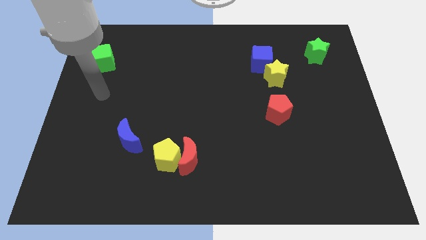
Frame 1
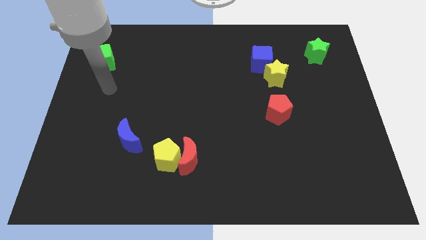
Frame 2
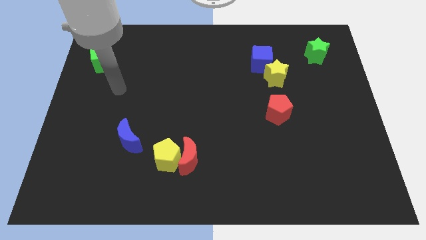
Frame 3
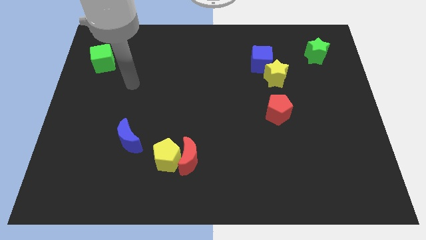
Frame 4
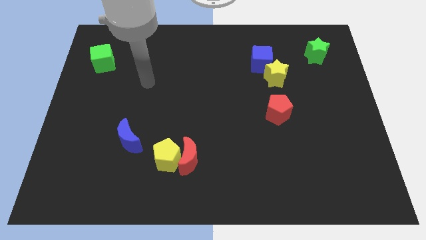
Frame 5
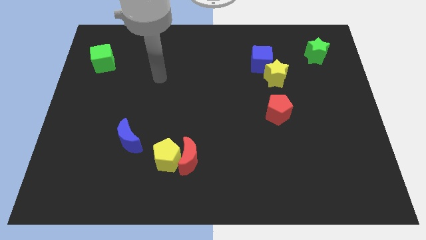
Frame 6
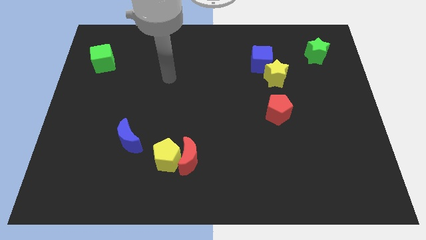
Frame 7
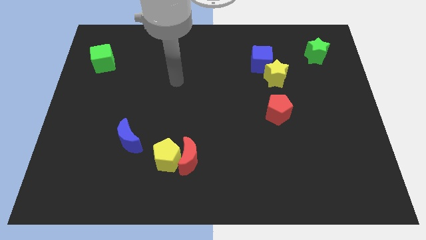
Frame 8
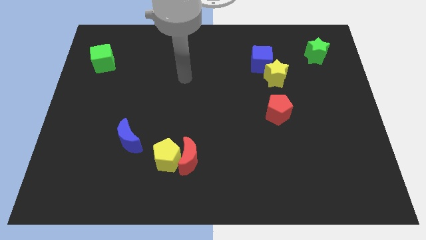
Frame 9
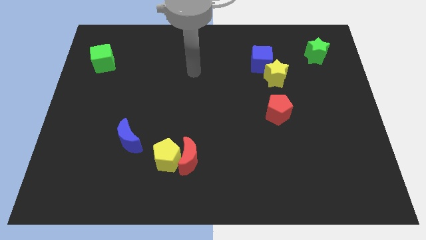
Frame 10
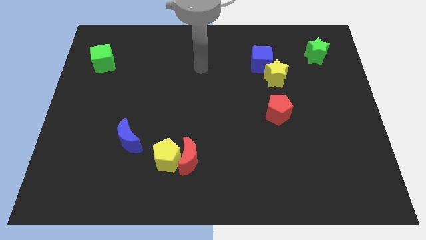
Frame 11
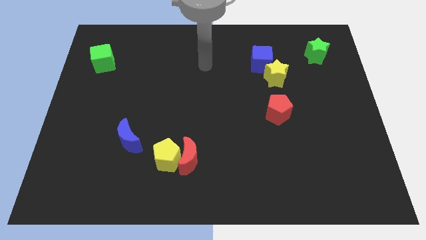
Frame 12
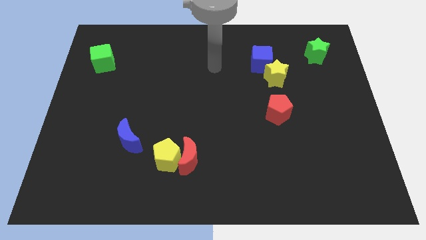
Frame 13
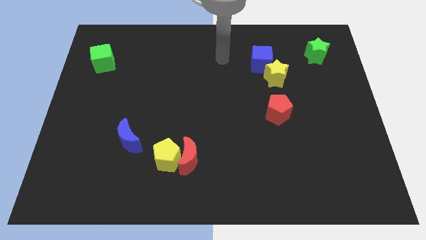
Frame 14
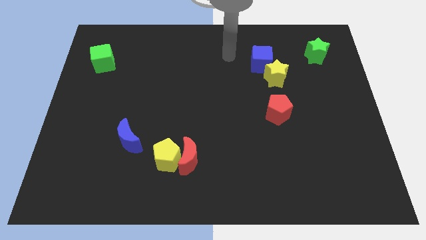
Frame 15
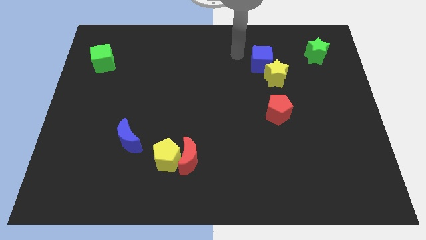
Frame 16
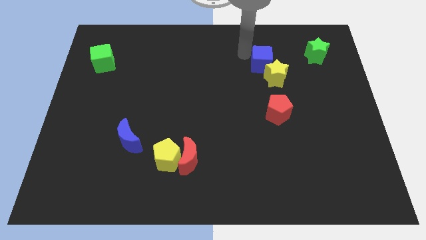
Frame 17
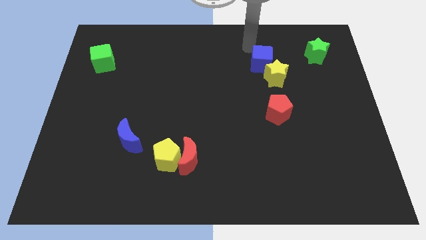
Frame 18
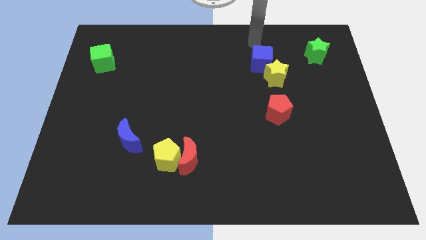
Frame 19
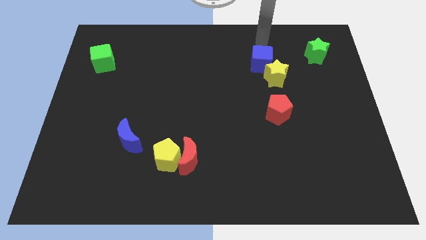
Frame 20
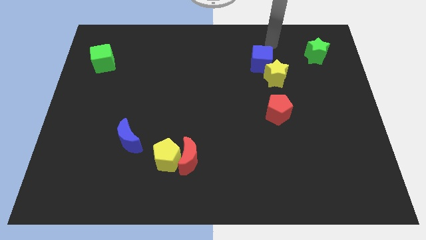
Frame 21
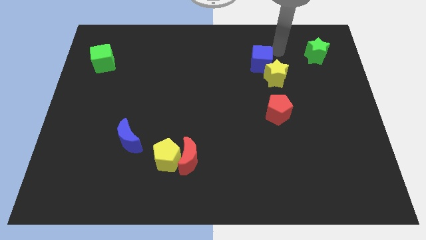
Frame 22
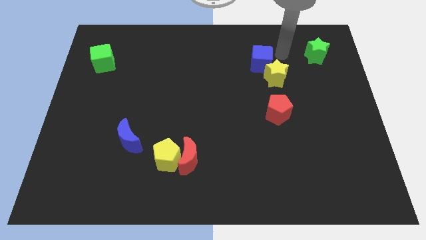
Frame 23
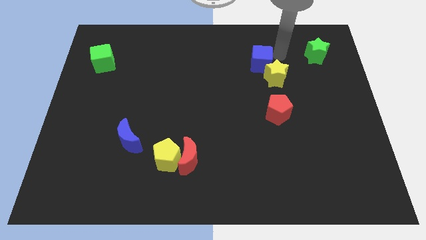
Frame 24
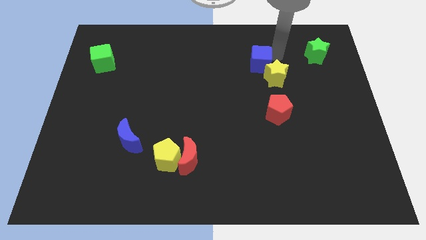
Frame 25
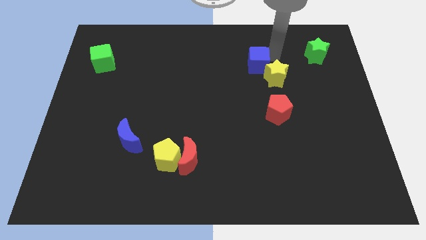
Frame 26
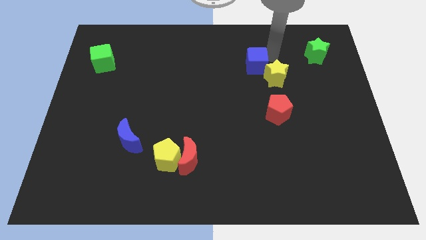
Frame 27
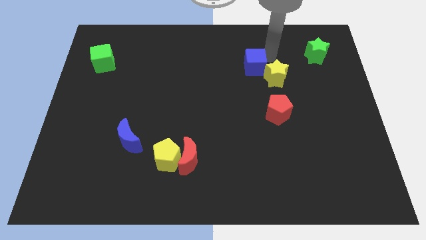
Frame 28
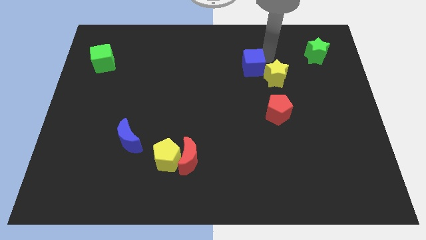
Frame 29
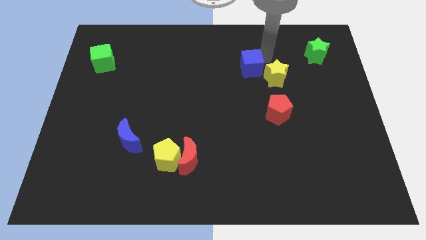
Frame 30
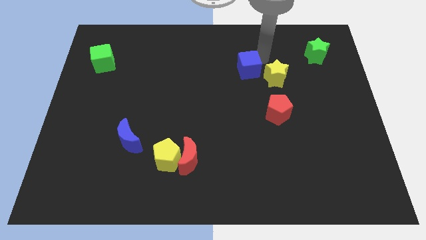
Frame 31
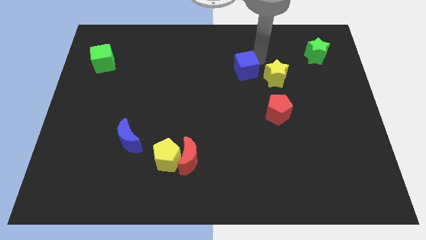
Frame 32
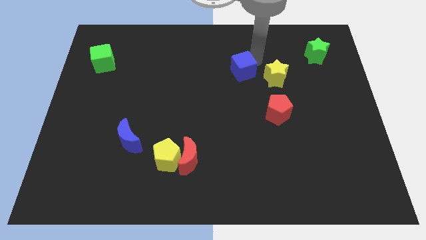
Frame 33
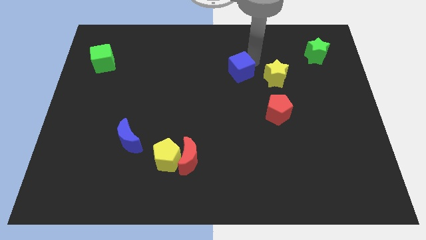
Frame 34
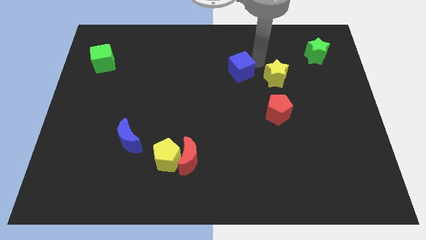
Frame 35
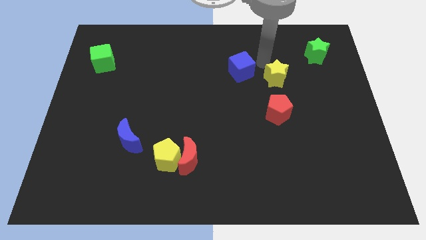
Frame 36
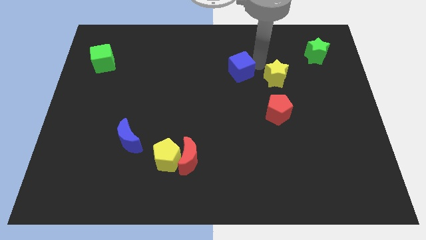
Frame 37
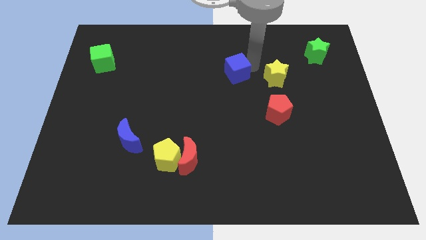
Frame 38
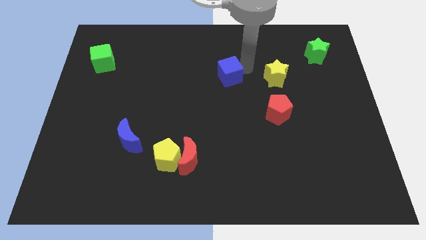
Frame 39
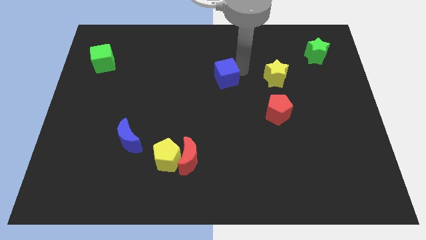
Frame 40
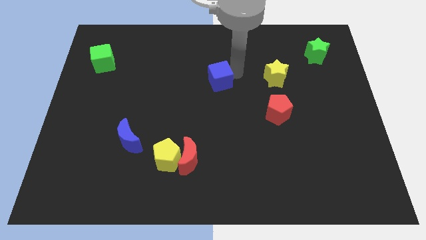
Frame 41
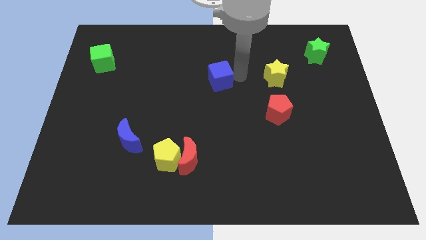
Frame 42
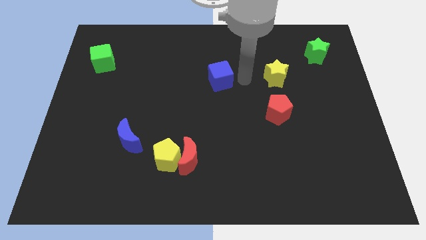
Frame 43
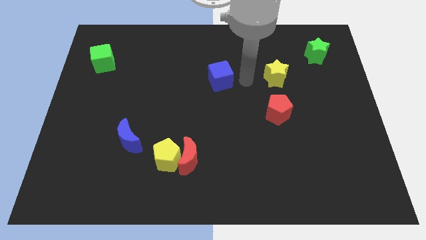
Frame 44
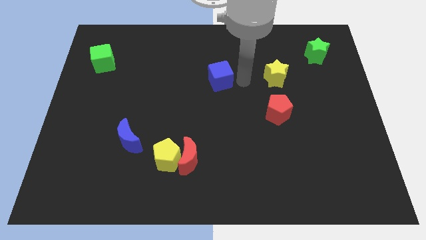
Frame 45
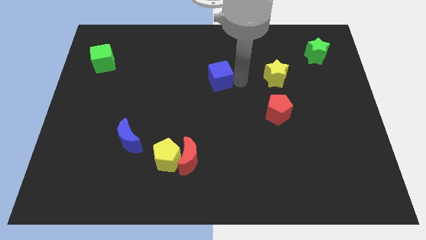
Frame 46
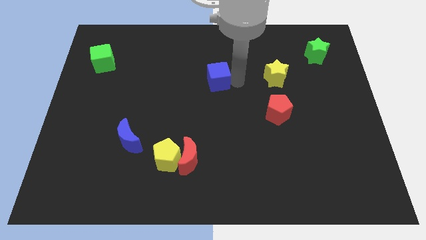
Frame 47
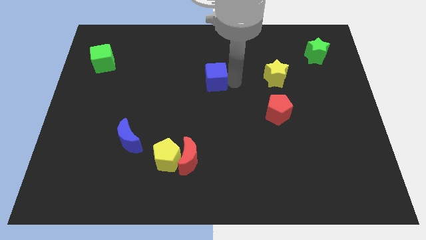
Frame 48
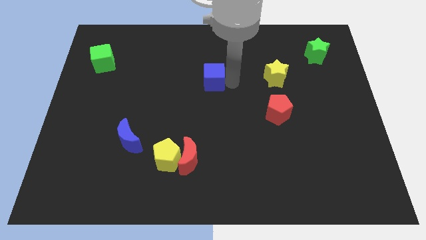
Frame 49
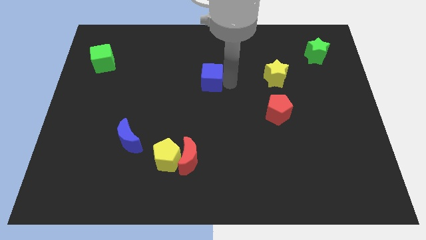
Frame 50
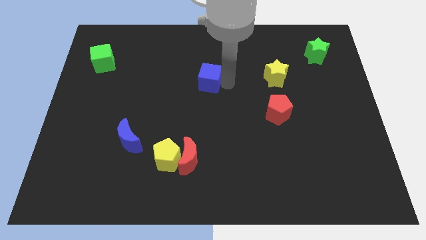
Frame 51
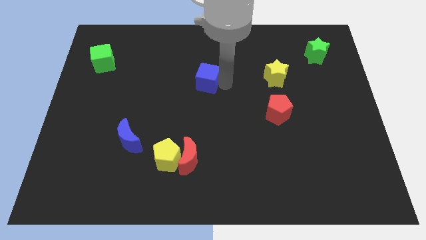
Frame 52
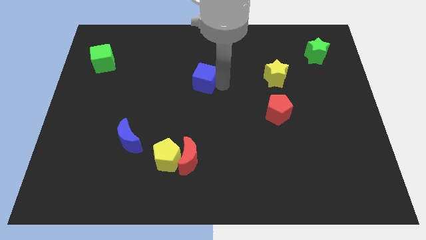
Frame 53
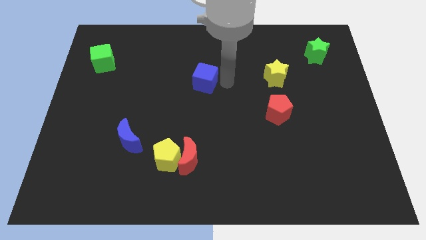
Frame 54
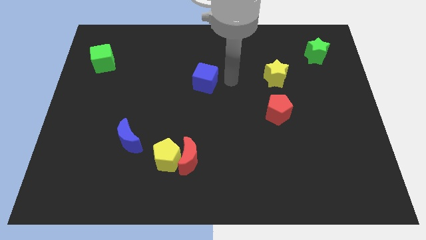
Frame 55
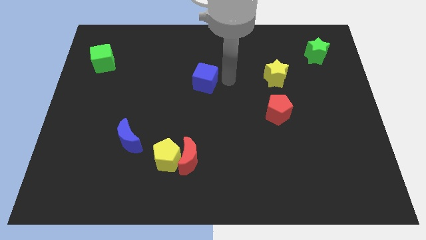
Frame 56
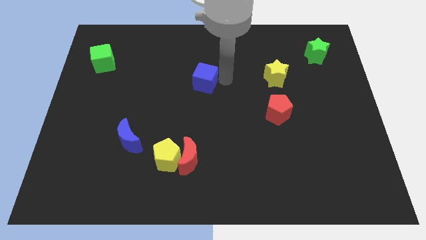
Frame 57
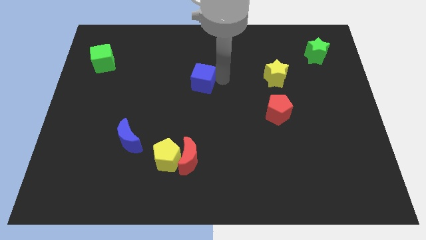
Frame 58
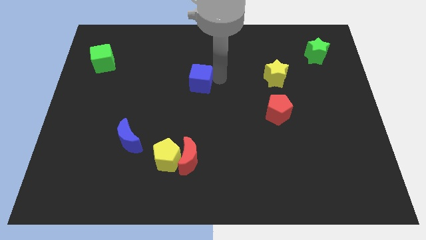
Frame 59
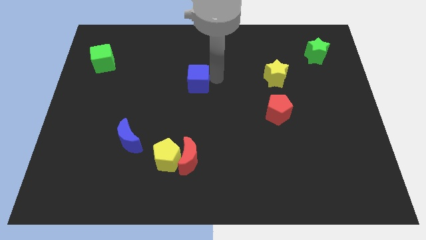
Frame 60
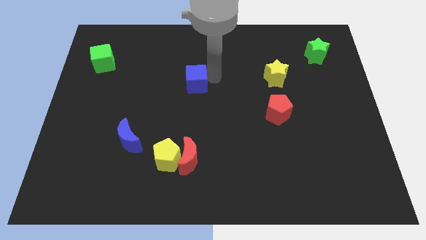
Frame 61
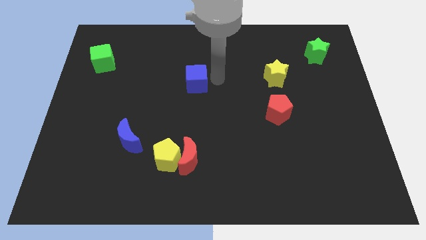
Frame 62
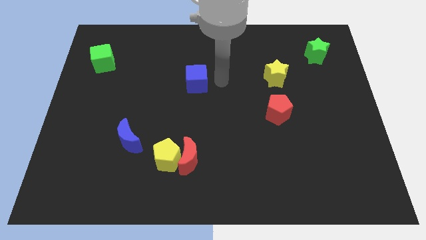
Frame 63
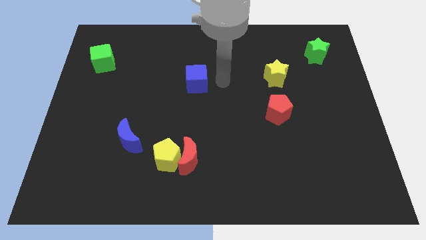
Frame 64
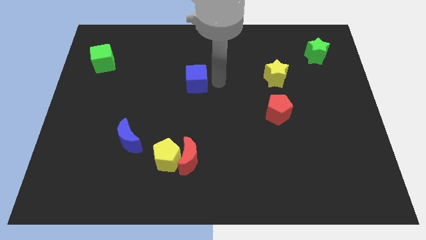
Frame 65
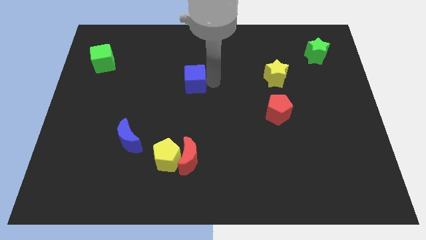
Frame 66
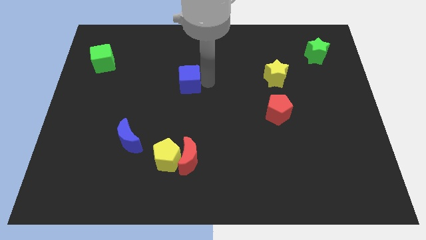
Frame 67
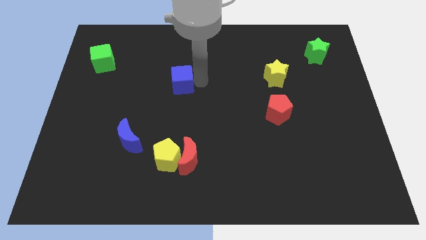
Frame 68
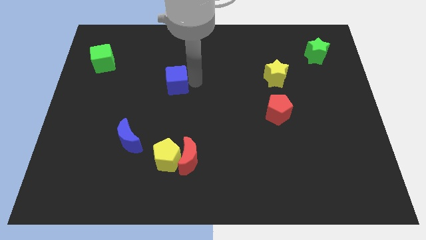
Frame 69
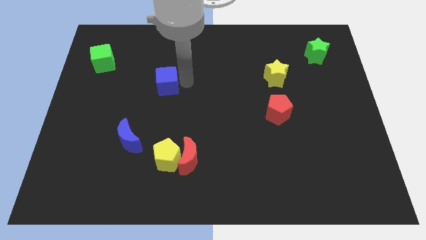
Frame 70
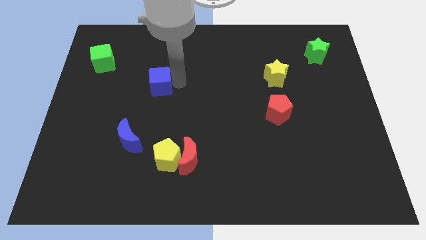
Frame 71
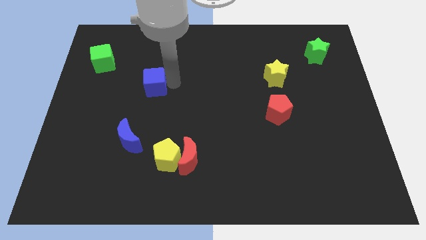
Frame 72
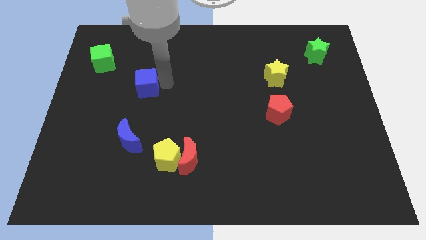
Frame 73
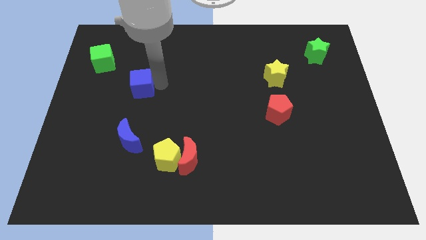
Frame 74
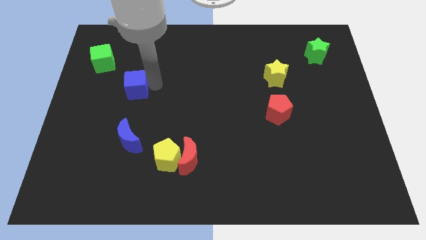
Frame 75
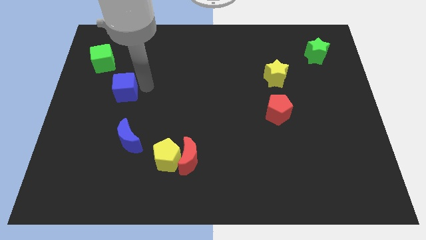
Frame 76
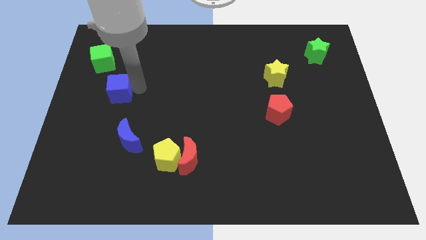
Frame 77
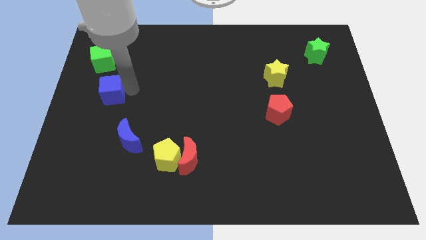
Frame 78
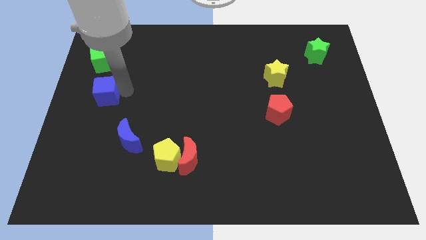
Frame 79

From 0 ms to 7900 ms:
move the blue cube to the left side
